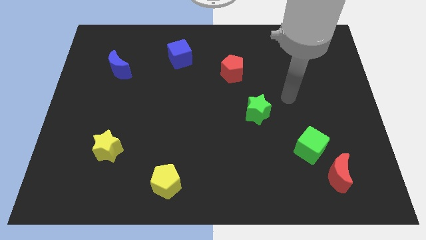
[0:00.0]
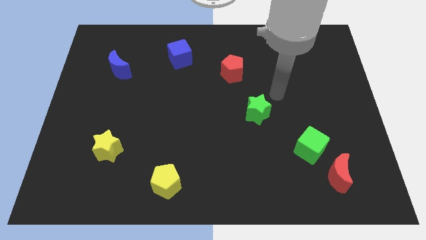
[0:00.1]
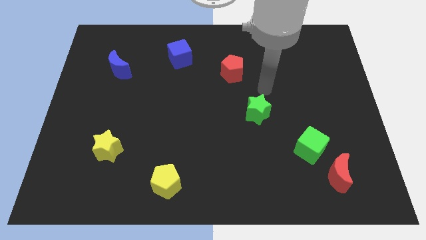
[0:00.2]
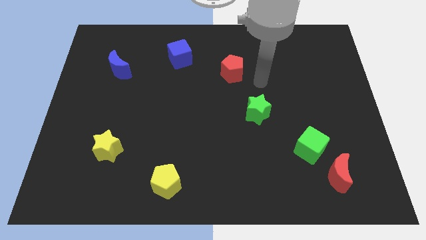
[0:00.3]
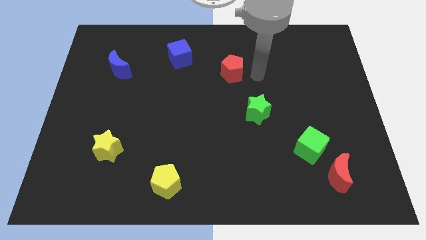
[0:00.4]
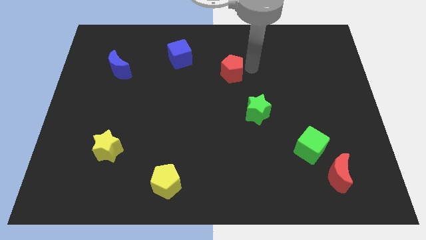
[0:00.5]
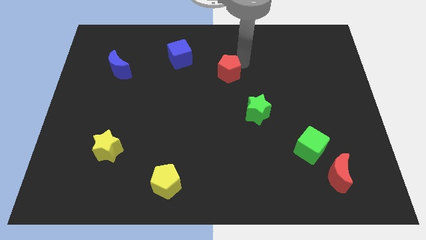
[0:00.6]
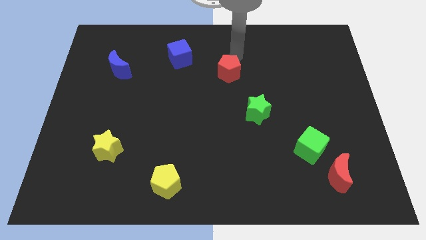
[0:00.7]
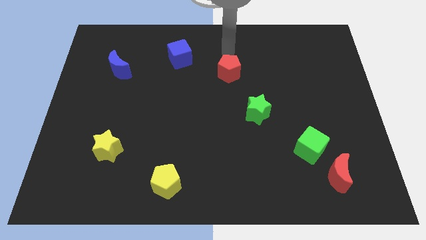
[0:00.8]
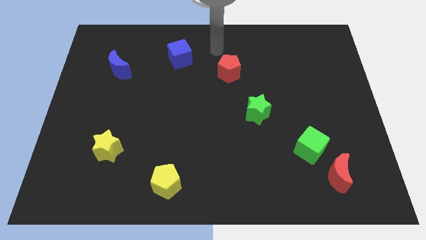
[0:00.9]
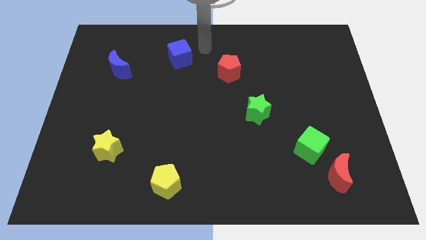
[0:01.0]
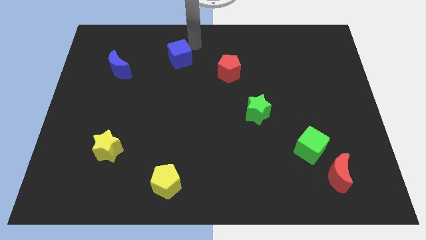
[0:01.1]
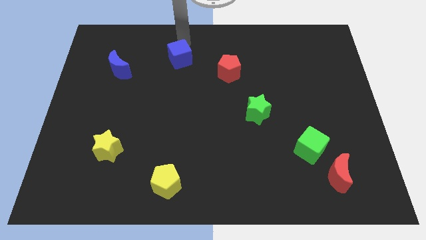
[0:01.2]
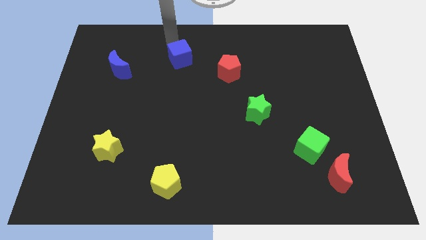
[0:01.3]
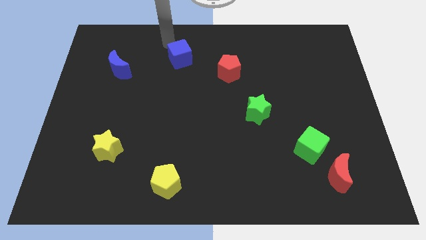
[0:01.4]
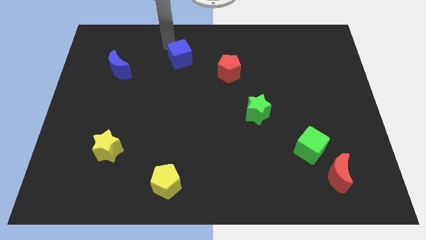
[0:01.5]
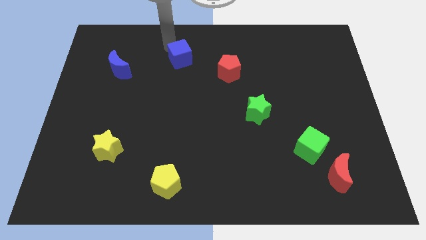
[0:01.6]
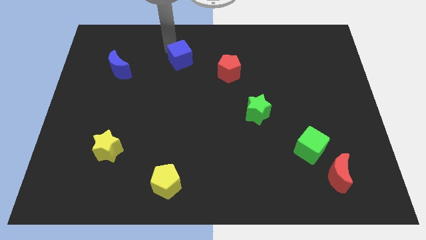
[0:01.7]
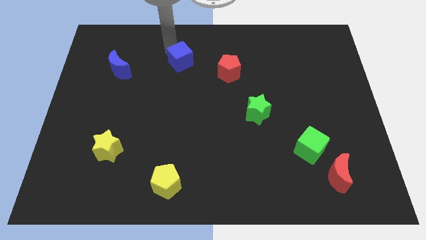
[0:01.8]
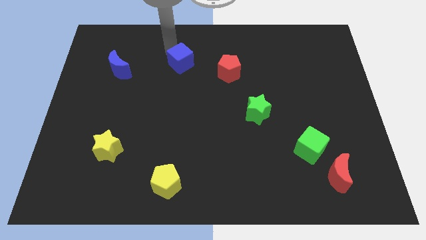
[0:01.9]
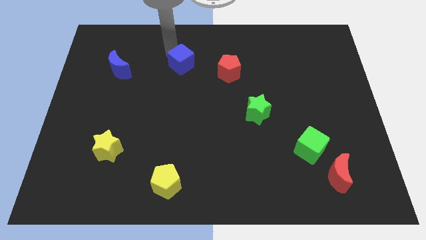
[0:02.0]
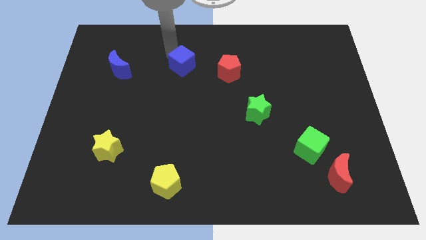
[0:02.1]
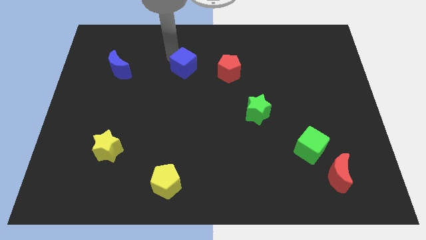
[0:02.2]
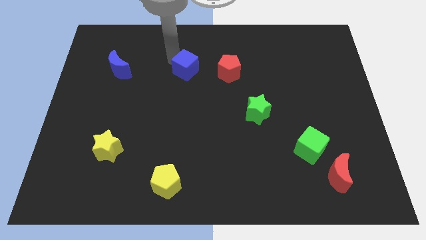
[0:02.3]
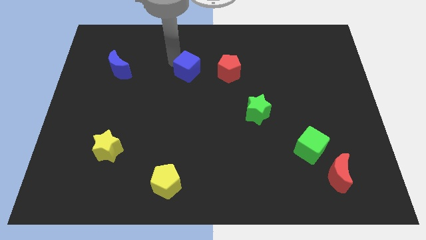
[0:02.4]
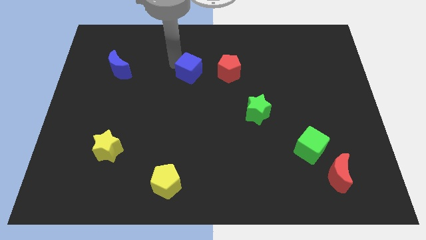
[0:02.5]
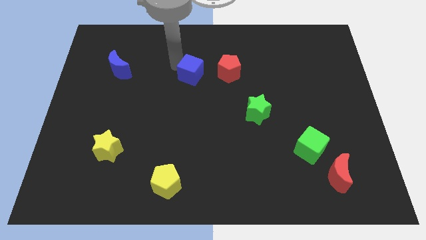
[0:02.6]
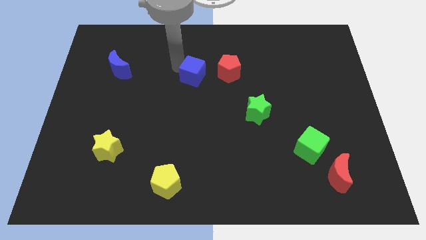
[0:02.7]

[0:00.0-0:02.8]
push the blue cube diagonally downwards and right a little

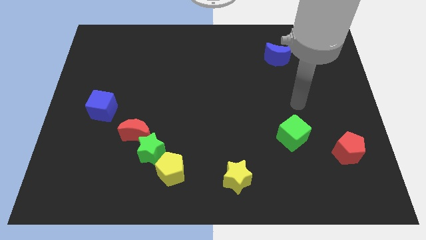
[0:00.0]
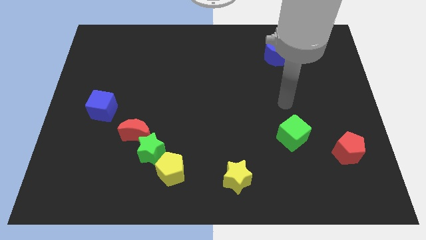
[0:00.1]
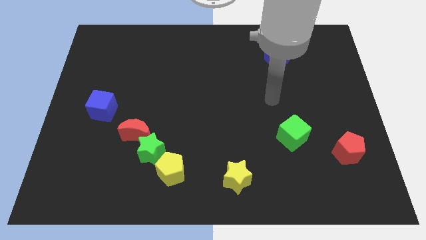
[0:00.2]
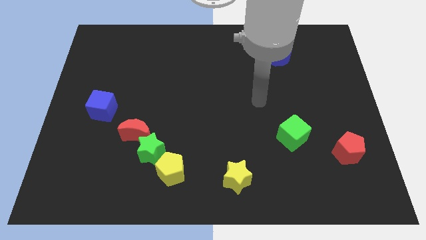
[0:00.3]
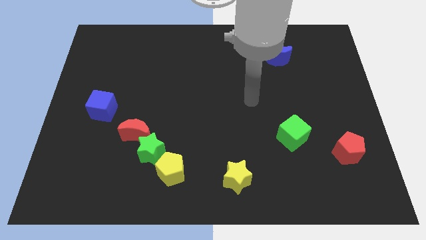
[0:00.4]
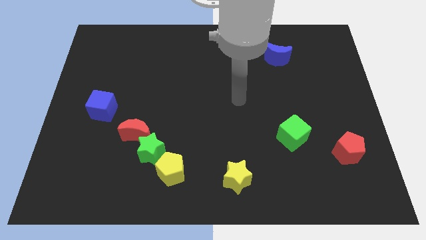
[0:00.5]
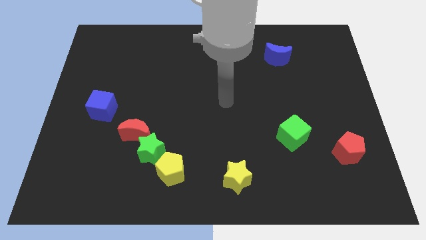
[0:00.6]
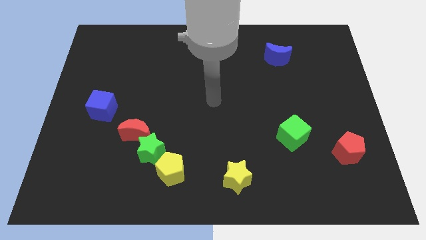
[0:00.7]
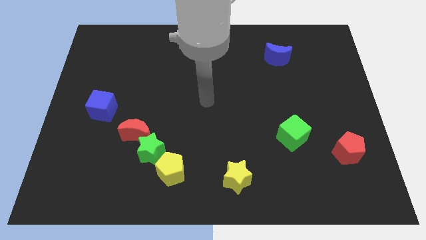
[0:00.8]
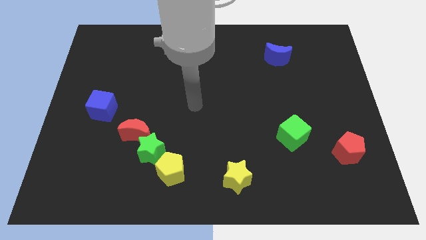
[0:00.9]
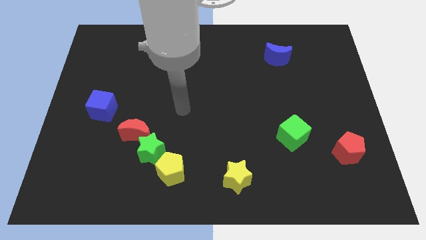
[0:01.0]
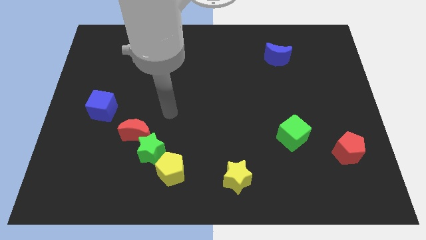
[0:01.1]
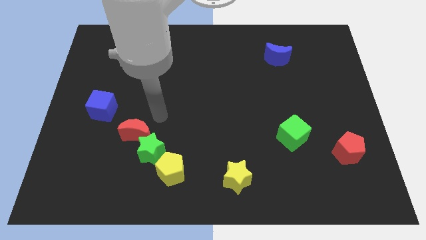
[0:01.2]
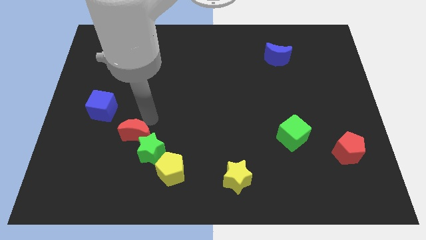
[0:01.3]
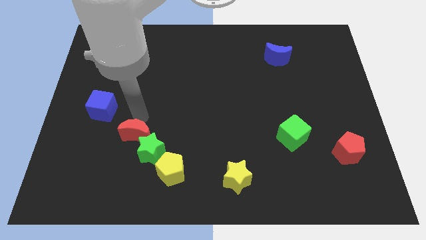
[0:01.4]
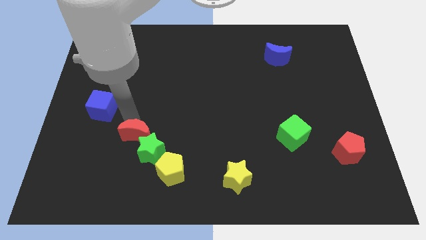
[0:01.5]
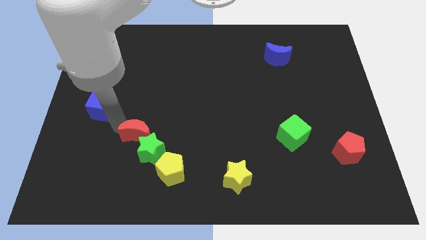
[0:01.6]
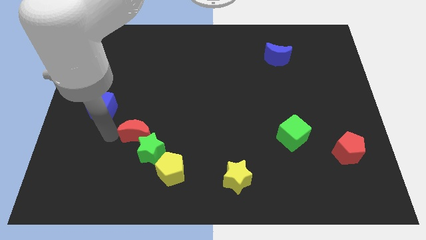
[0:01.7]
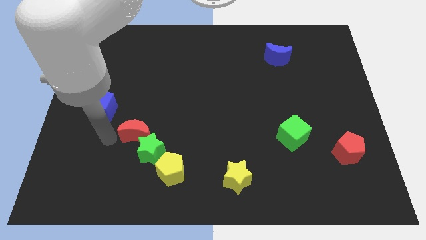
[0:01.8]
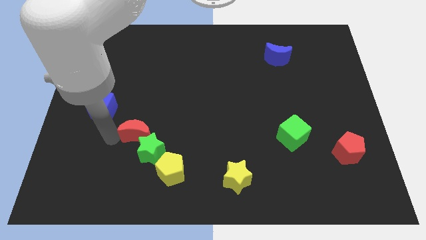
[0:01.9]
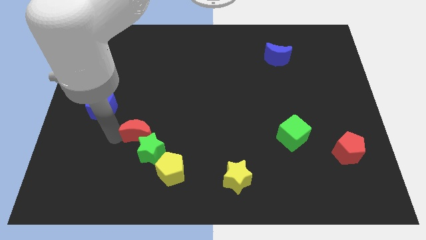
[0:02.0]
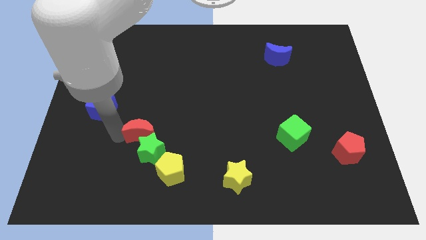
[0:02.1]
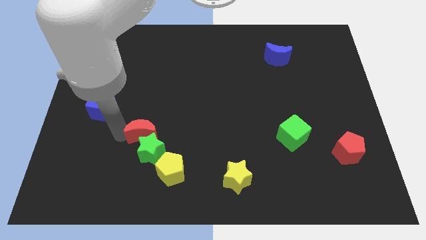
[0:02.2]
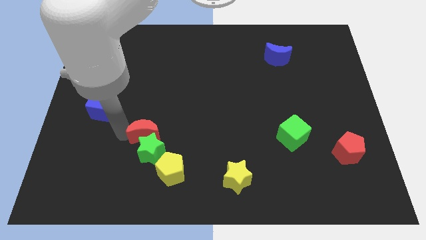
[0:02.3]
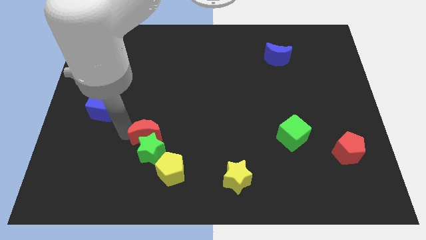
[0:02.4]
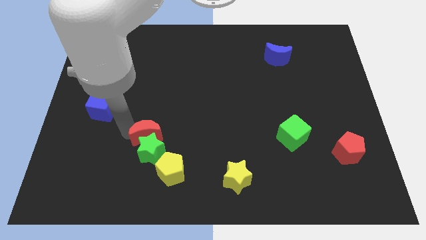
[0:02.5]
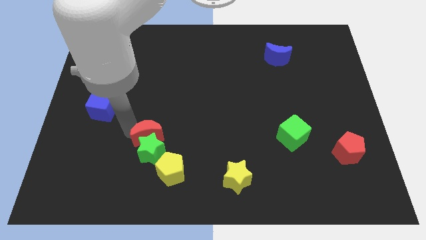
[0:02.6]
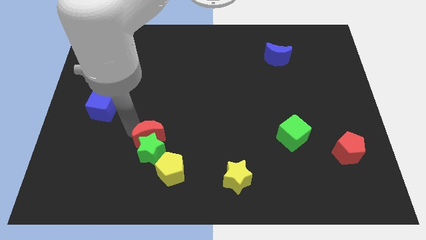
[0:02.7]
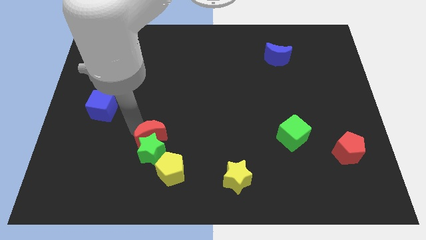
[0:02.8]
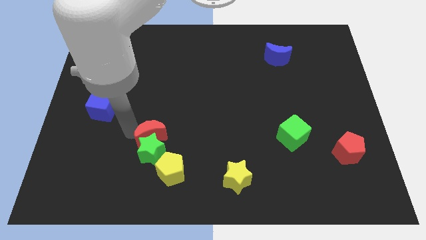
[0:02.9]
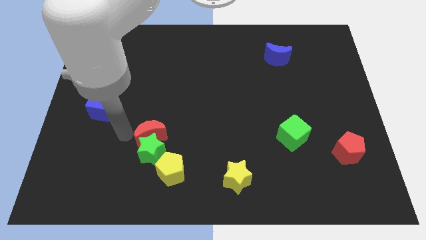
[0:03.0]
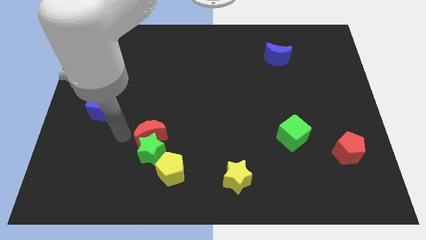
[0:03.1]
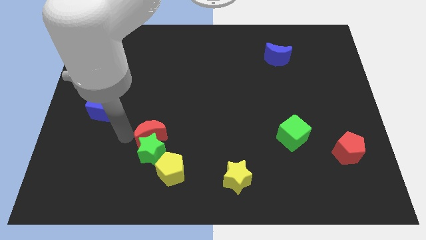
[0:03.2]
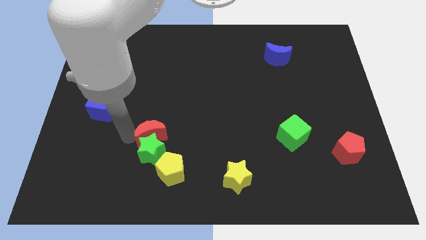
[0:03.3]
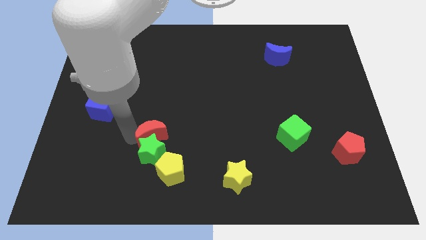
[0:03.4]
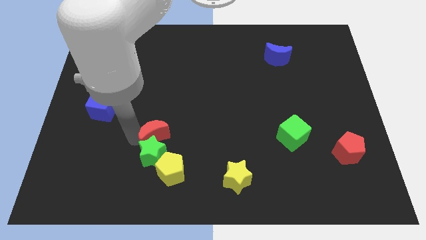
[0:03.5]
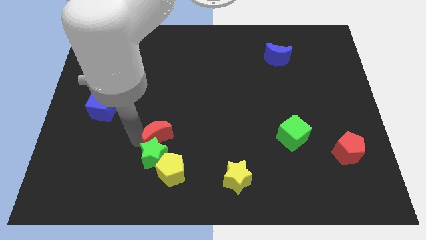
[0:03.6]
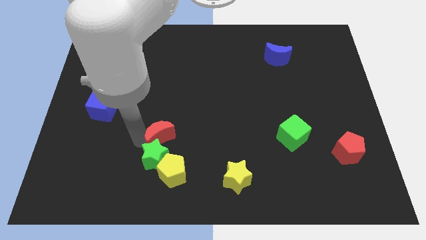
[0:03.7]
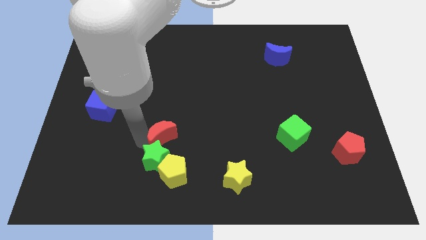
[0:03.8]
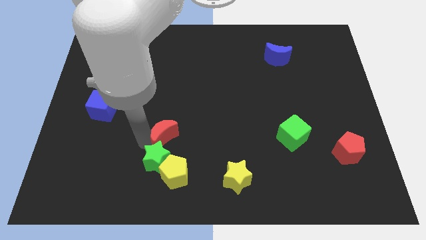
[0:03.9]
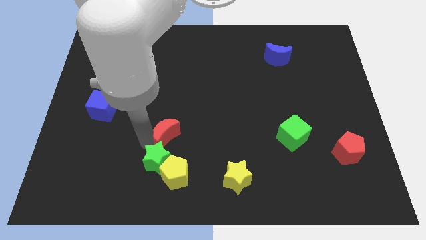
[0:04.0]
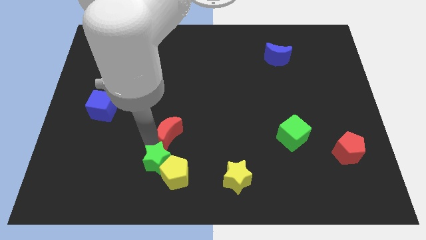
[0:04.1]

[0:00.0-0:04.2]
move the red moon somewhat right

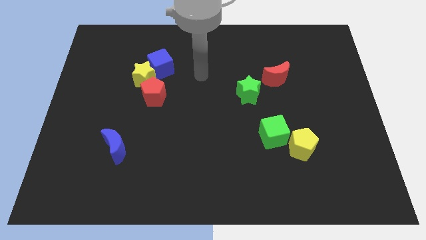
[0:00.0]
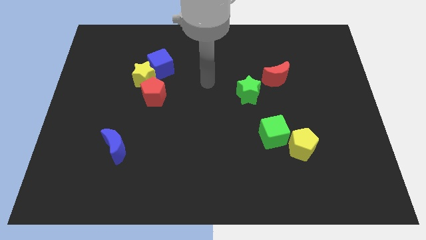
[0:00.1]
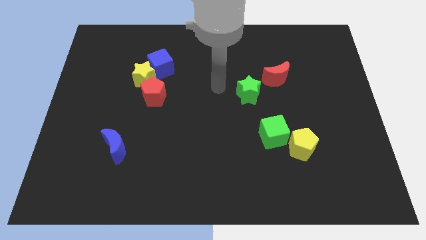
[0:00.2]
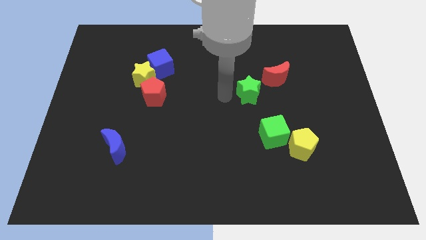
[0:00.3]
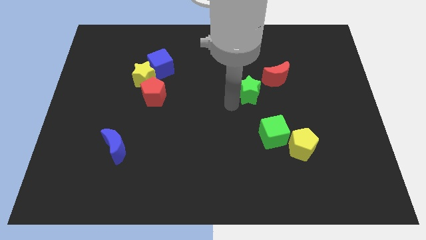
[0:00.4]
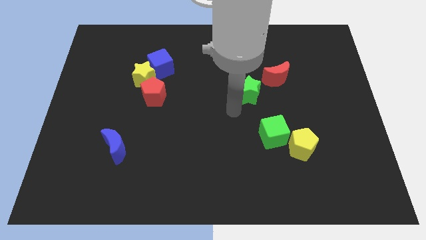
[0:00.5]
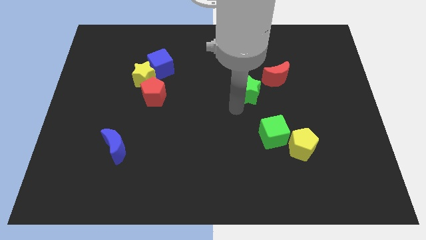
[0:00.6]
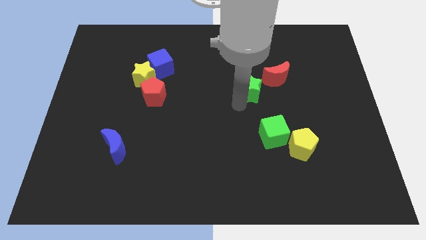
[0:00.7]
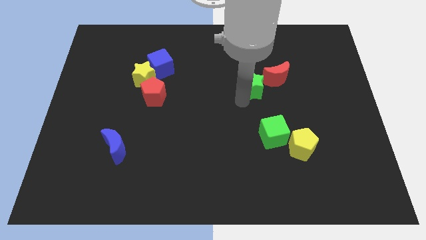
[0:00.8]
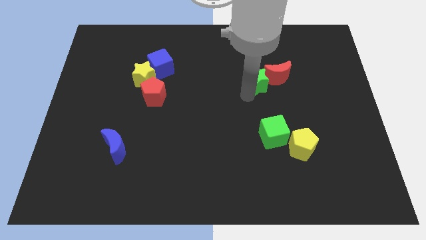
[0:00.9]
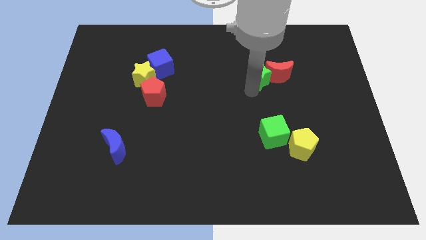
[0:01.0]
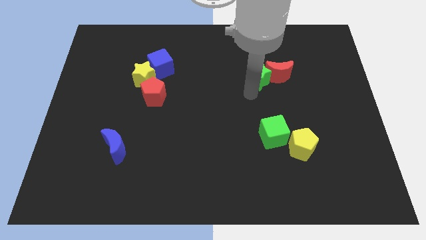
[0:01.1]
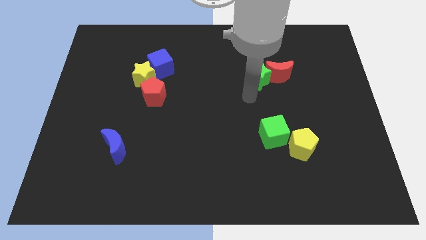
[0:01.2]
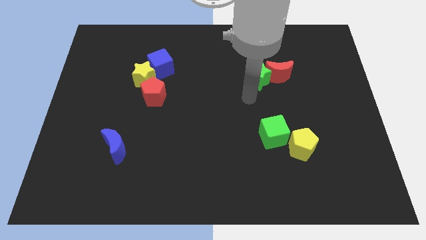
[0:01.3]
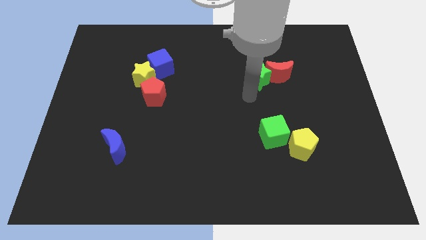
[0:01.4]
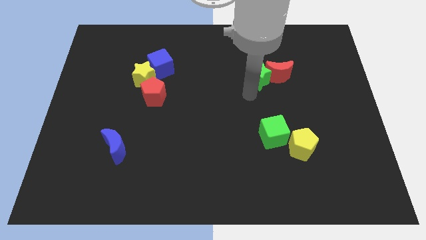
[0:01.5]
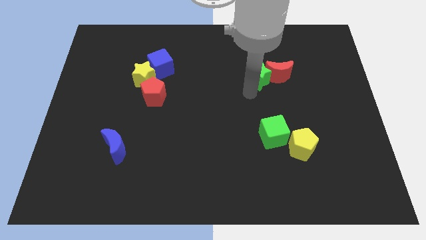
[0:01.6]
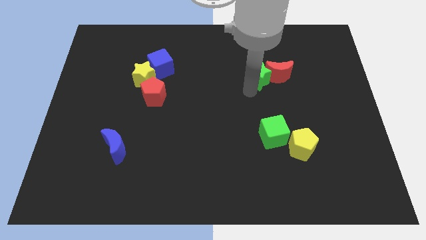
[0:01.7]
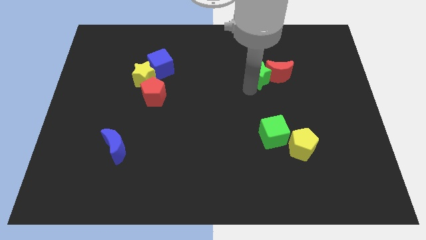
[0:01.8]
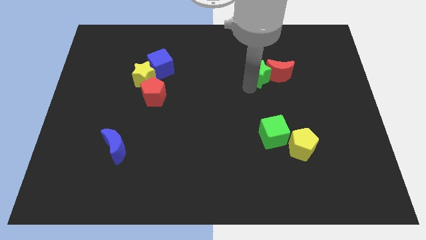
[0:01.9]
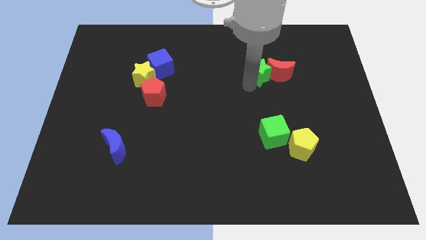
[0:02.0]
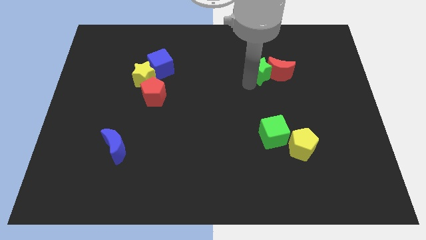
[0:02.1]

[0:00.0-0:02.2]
slightly slide the green star diagonally up and right
